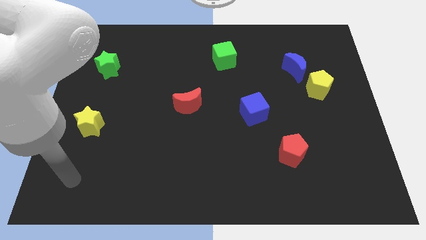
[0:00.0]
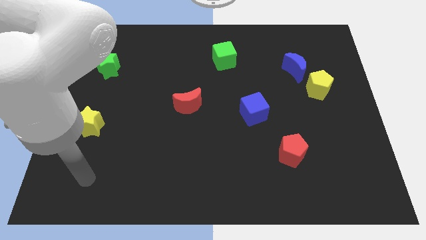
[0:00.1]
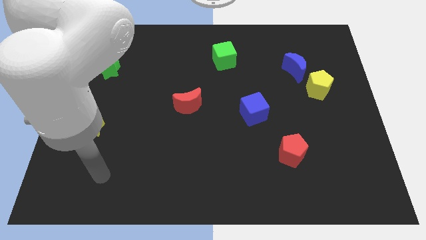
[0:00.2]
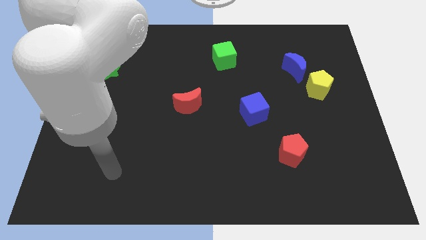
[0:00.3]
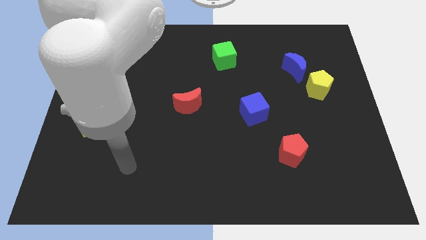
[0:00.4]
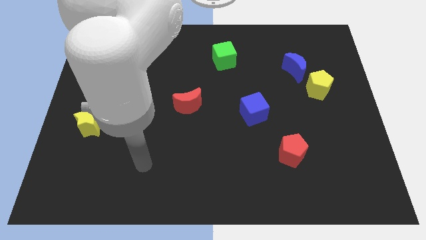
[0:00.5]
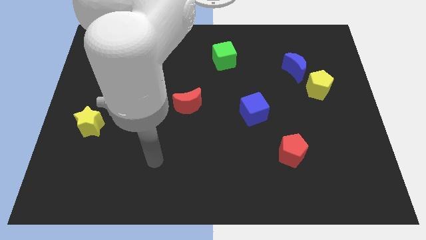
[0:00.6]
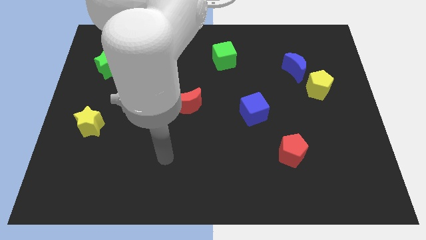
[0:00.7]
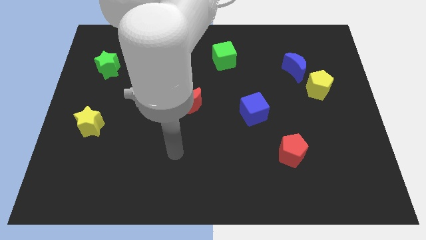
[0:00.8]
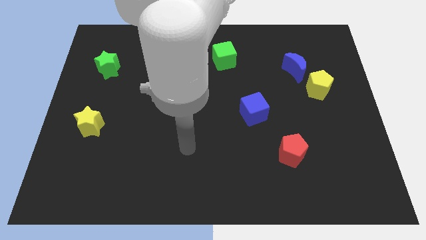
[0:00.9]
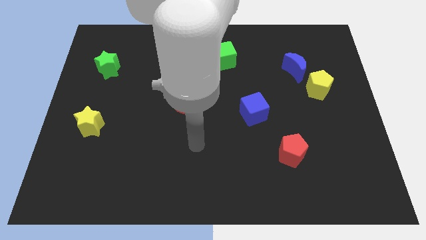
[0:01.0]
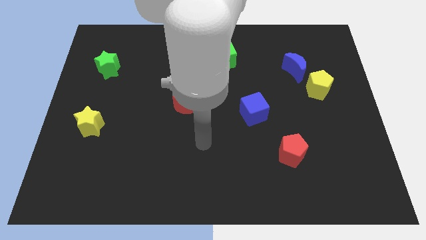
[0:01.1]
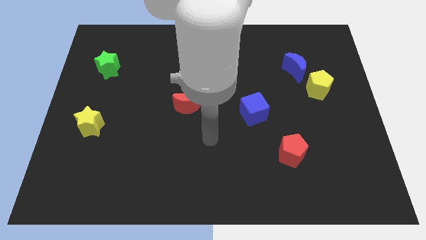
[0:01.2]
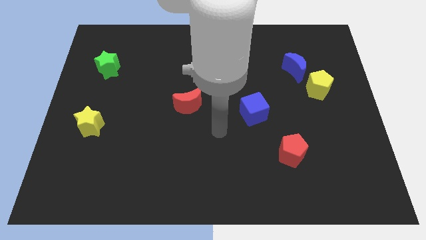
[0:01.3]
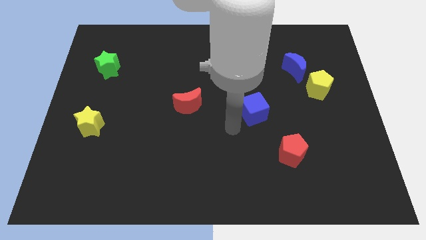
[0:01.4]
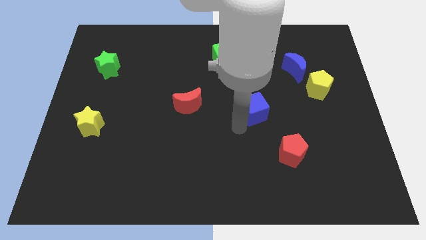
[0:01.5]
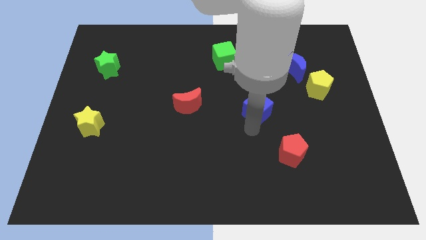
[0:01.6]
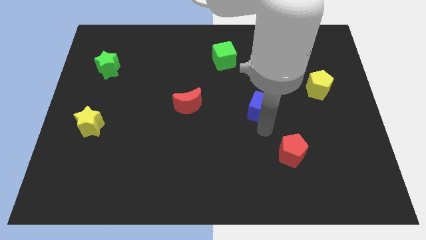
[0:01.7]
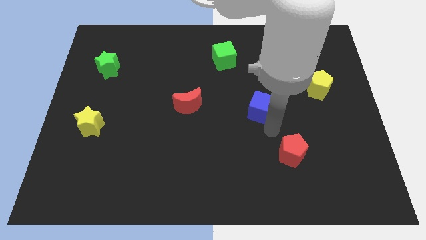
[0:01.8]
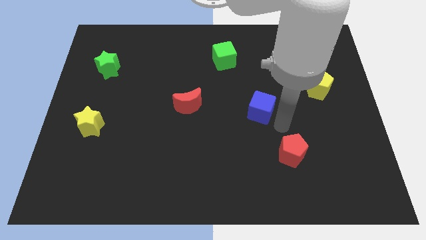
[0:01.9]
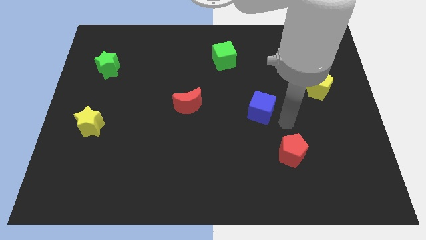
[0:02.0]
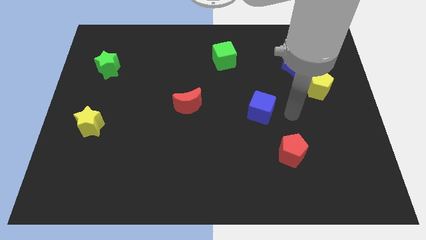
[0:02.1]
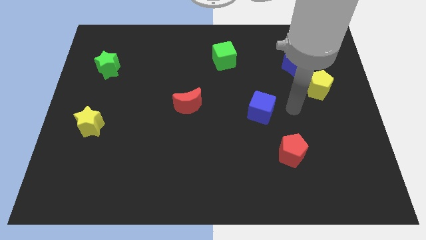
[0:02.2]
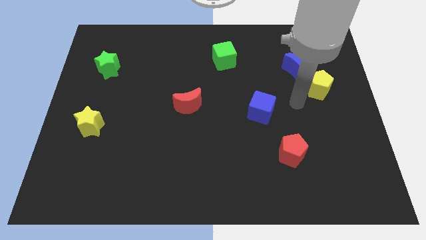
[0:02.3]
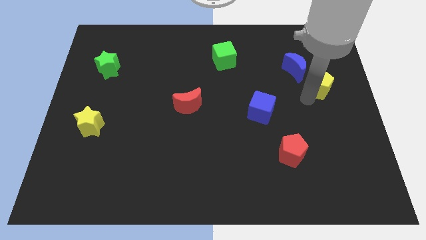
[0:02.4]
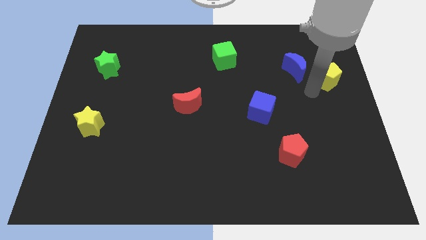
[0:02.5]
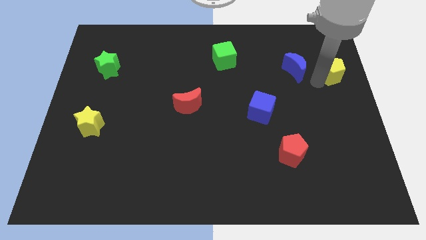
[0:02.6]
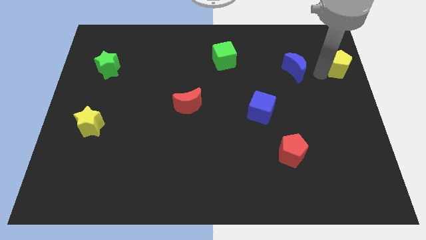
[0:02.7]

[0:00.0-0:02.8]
separate the blue moon from the yellow pentagon

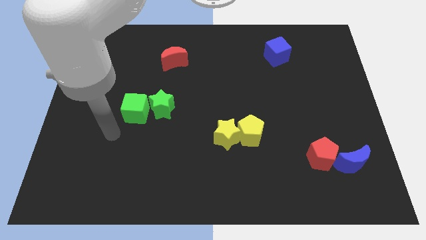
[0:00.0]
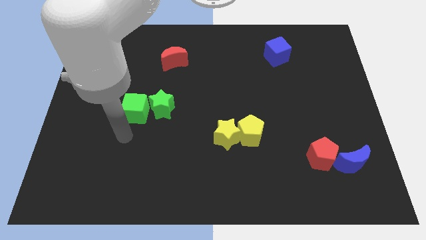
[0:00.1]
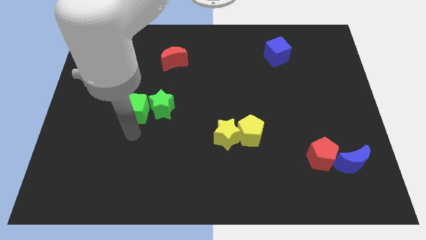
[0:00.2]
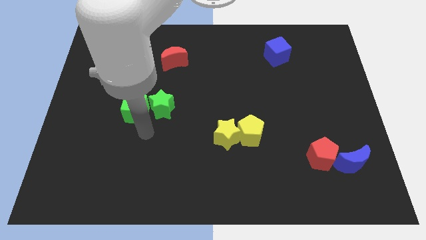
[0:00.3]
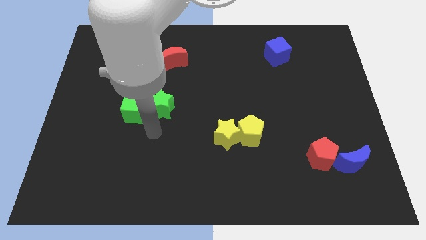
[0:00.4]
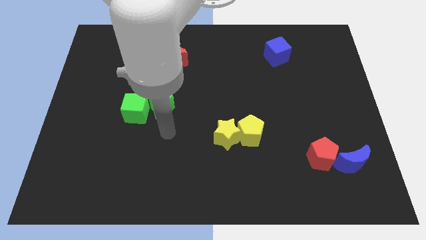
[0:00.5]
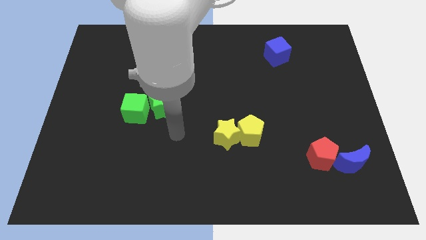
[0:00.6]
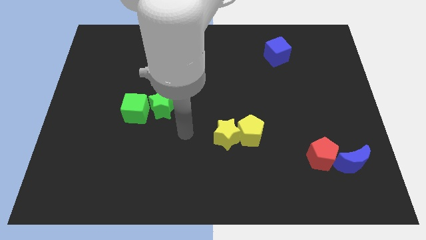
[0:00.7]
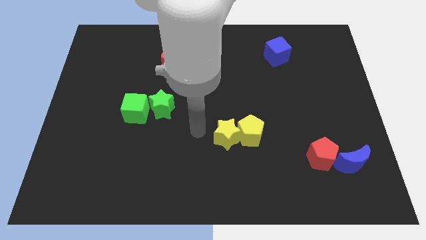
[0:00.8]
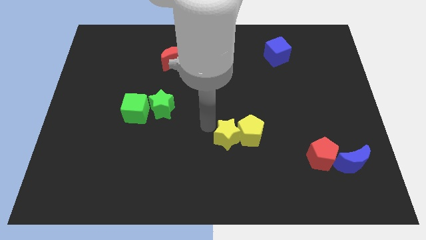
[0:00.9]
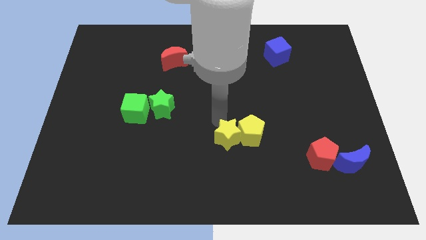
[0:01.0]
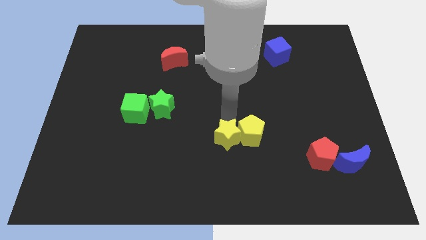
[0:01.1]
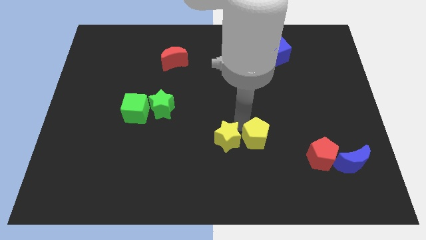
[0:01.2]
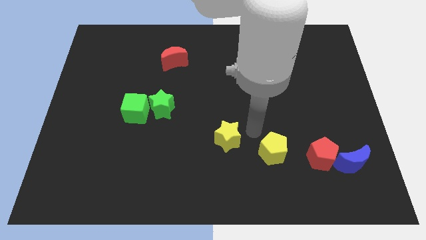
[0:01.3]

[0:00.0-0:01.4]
move the yellow star away from the yellow pentagon

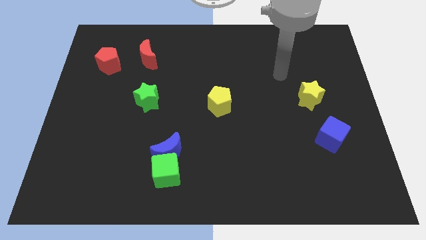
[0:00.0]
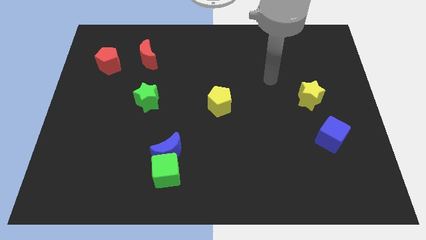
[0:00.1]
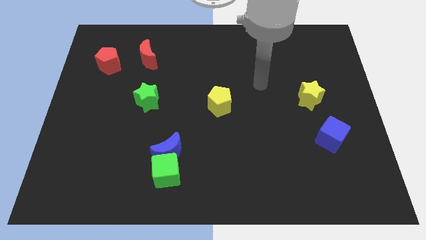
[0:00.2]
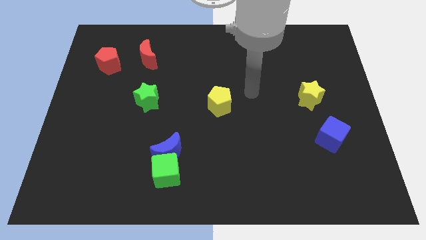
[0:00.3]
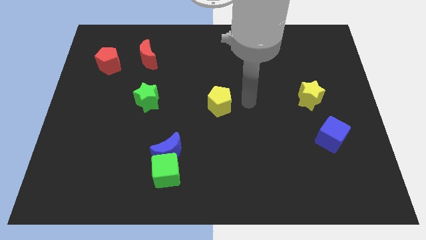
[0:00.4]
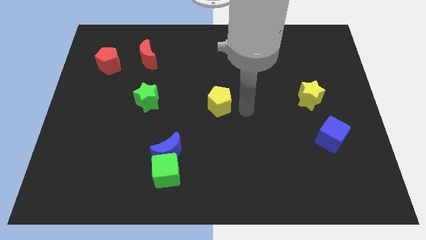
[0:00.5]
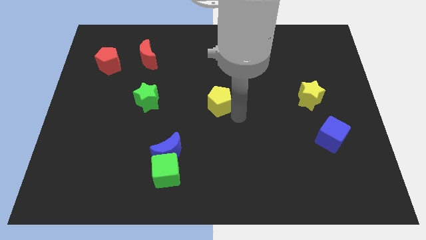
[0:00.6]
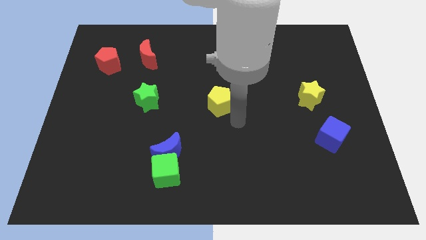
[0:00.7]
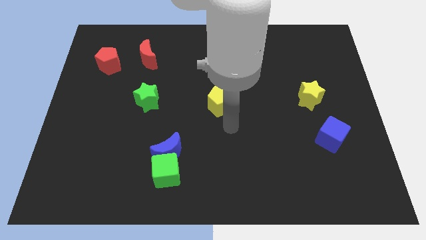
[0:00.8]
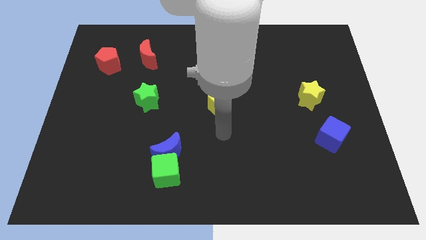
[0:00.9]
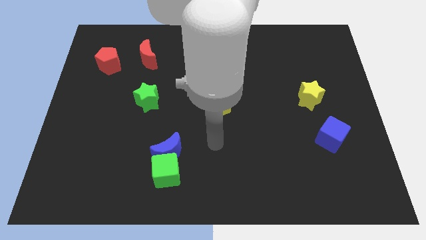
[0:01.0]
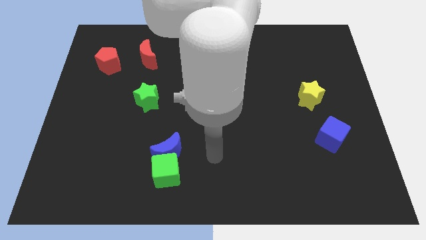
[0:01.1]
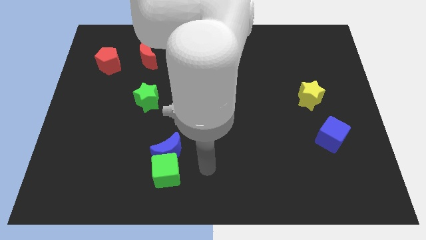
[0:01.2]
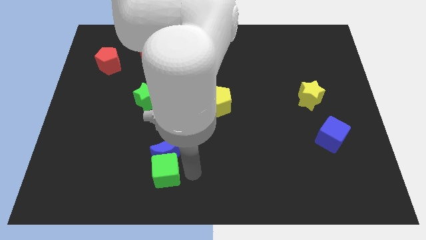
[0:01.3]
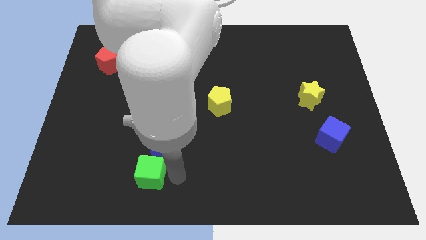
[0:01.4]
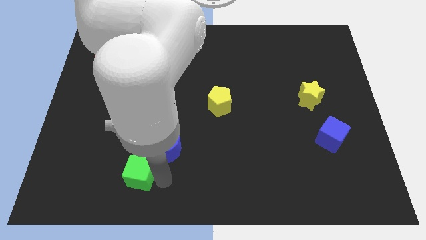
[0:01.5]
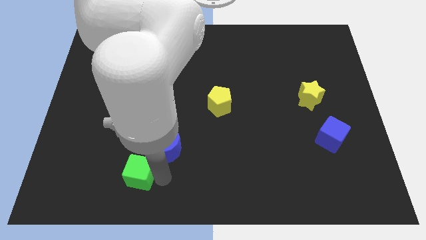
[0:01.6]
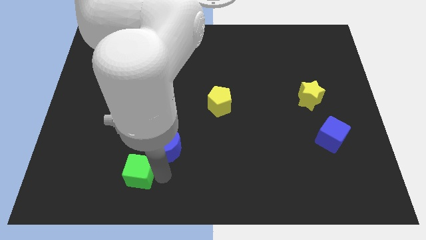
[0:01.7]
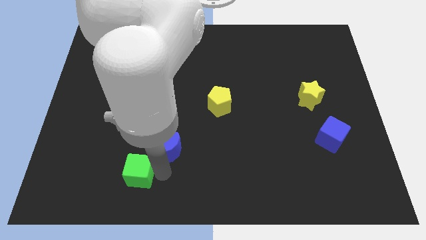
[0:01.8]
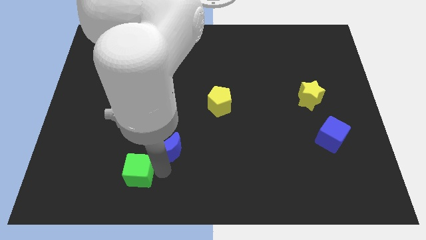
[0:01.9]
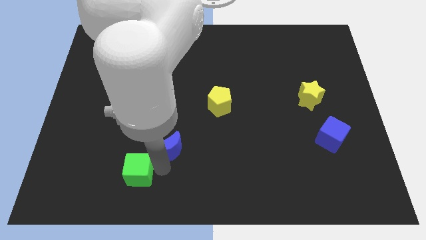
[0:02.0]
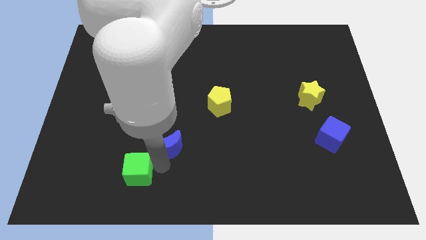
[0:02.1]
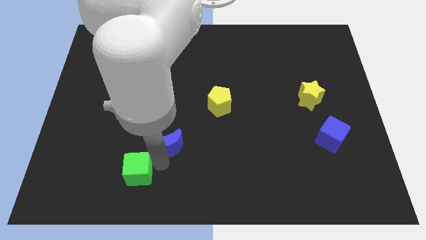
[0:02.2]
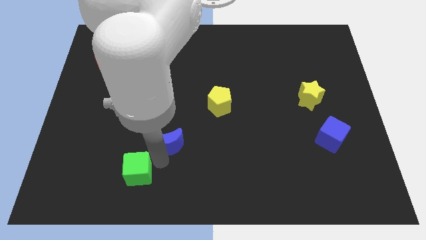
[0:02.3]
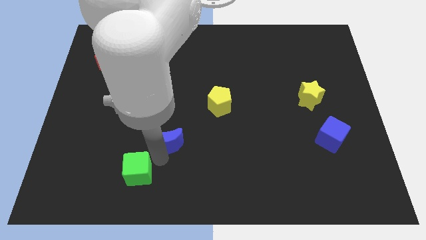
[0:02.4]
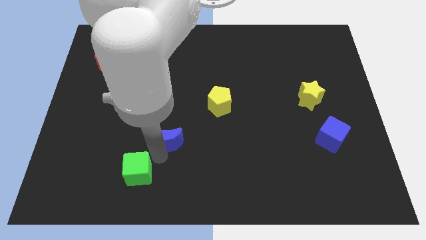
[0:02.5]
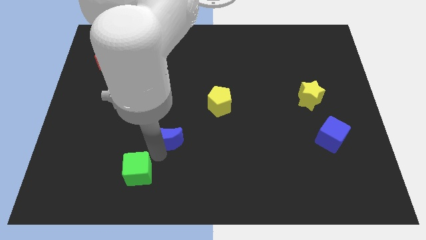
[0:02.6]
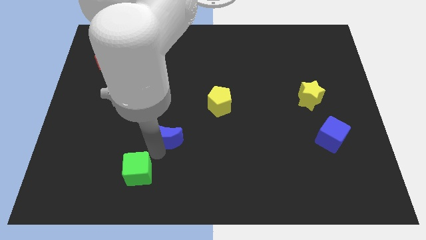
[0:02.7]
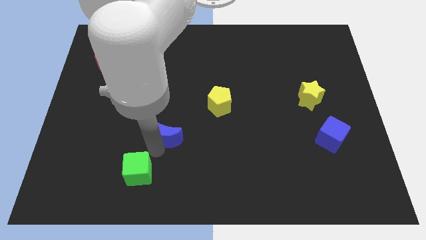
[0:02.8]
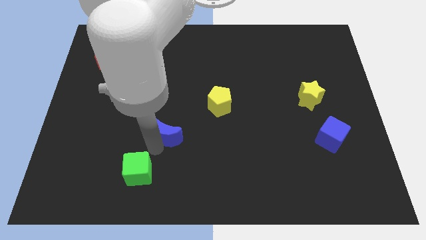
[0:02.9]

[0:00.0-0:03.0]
separate the blue moon from the green cube

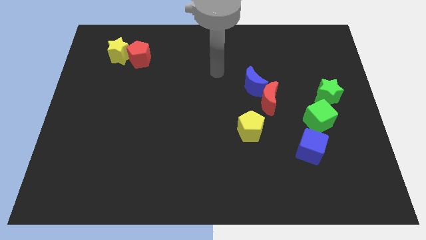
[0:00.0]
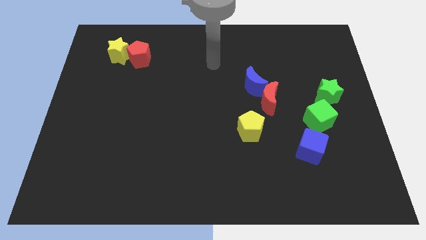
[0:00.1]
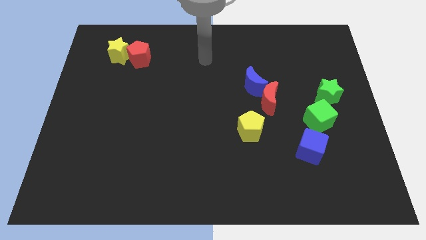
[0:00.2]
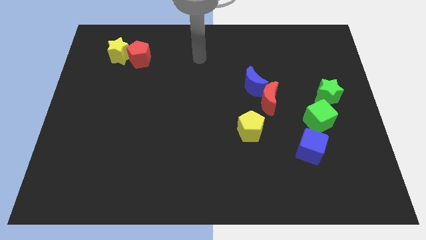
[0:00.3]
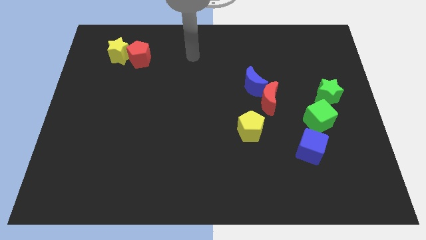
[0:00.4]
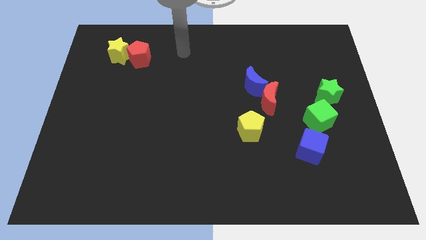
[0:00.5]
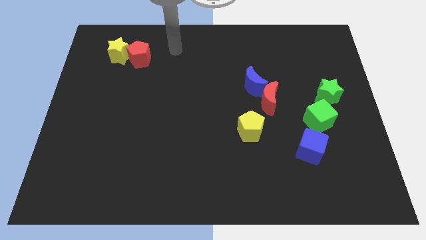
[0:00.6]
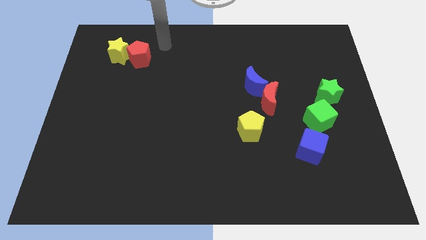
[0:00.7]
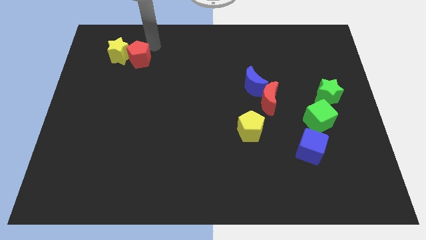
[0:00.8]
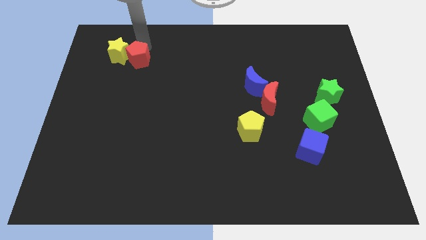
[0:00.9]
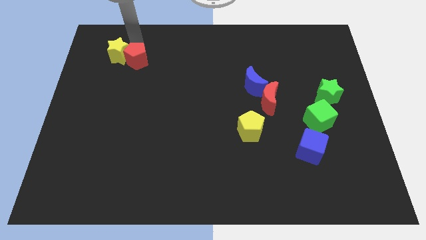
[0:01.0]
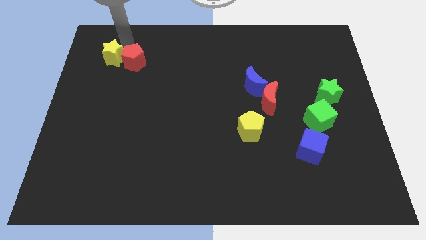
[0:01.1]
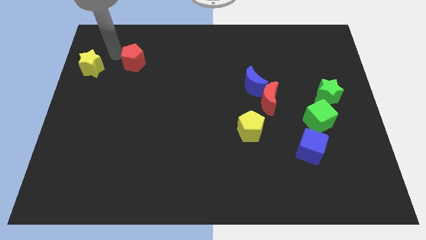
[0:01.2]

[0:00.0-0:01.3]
separate the red pentagon from the yellow star

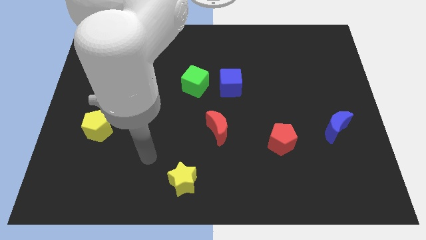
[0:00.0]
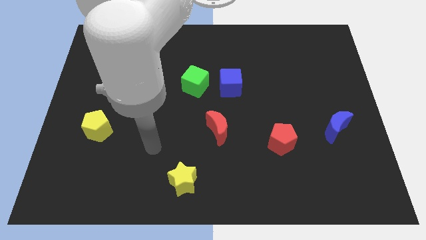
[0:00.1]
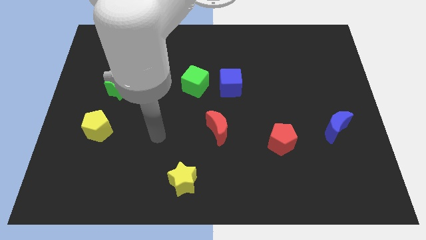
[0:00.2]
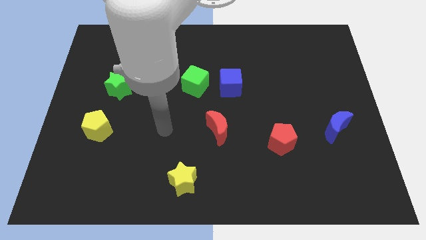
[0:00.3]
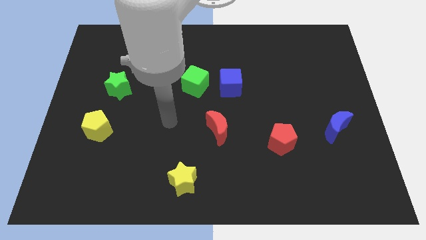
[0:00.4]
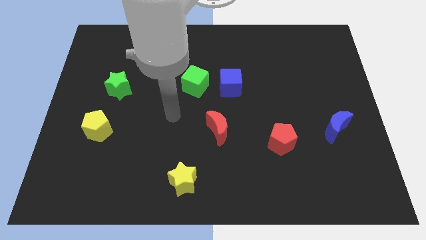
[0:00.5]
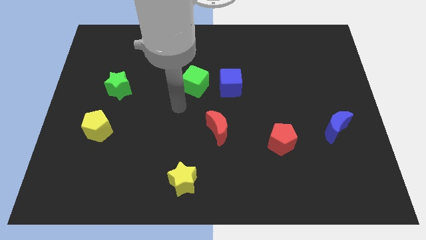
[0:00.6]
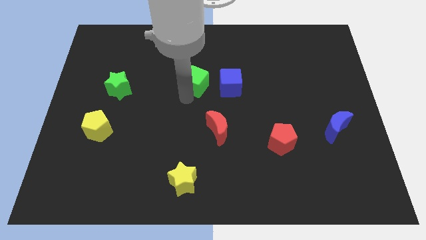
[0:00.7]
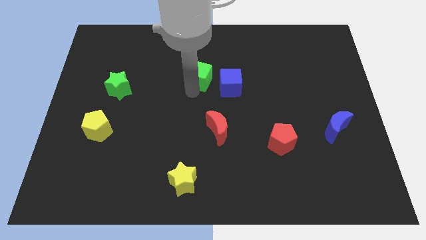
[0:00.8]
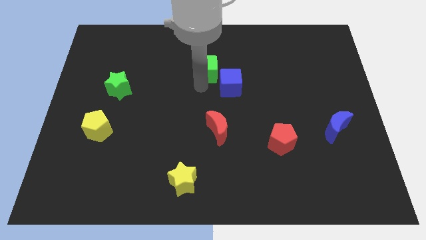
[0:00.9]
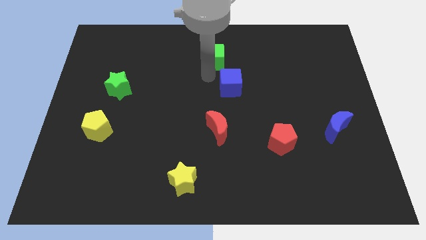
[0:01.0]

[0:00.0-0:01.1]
pull the blue cube apart from the green cube
